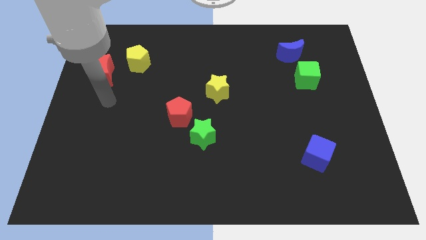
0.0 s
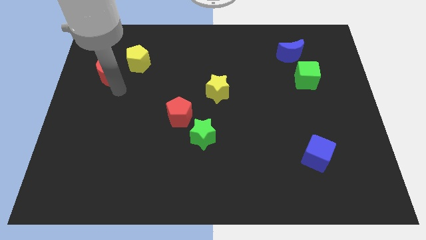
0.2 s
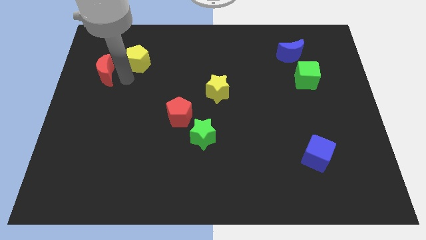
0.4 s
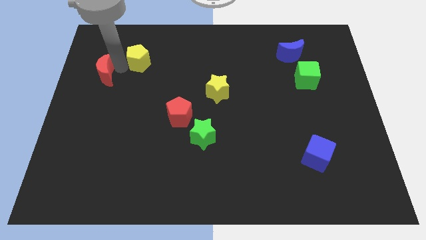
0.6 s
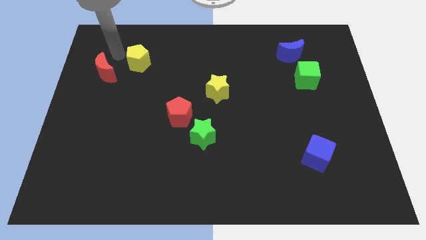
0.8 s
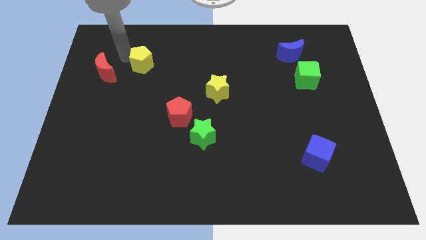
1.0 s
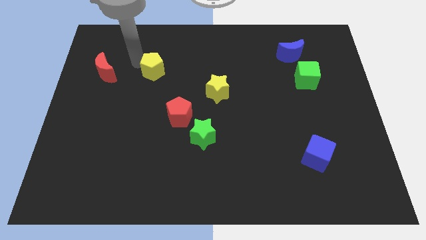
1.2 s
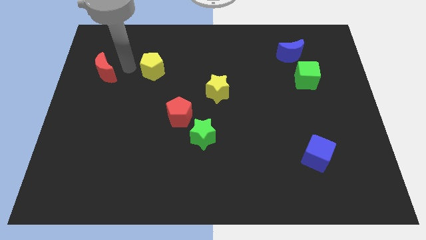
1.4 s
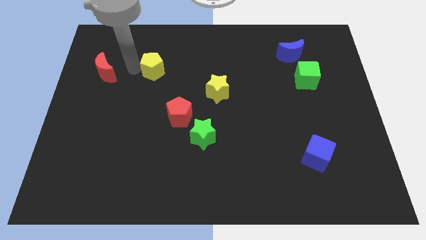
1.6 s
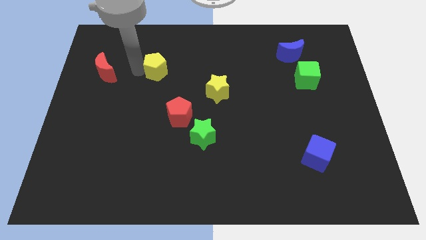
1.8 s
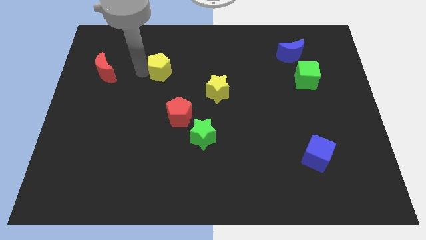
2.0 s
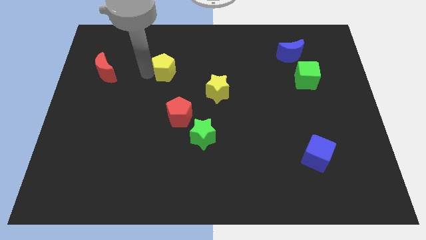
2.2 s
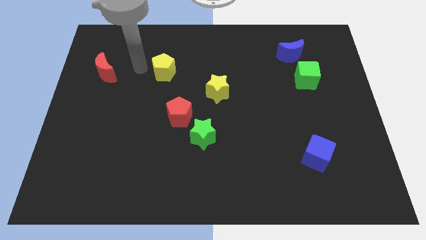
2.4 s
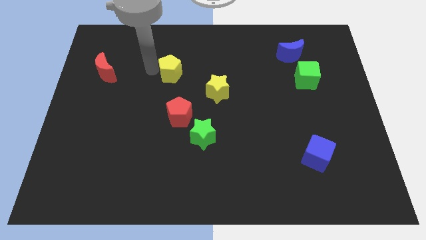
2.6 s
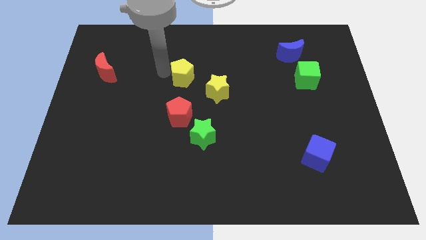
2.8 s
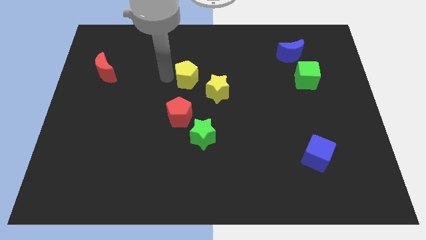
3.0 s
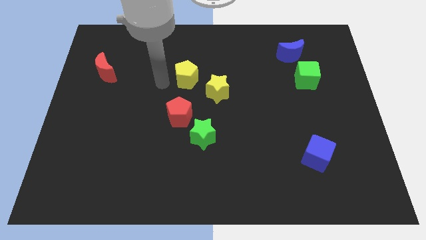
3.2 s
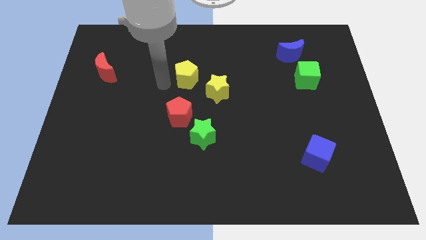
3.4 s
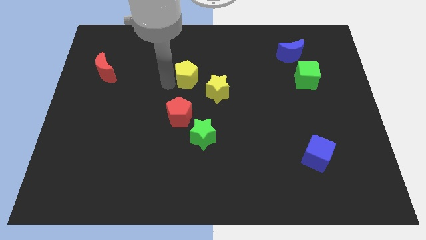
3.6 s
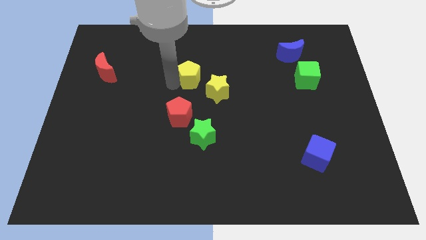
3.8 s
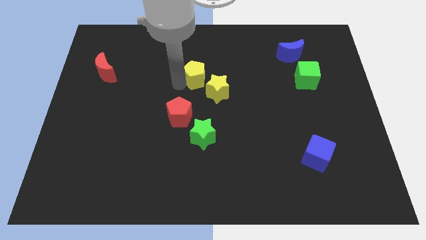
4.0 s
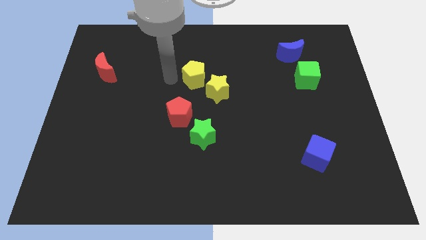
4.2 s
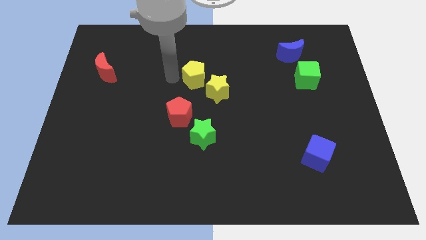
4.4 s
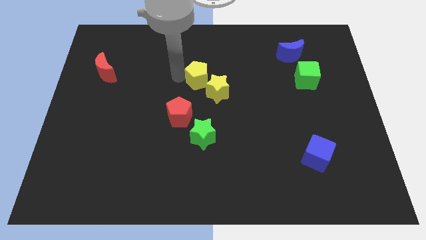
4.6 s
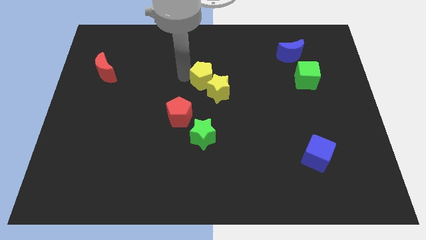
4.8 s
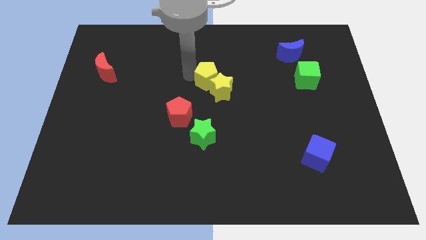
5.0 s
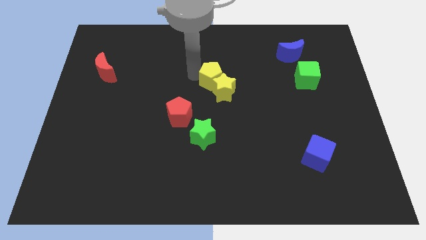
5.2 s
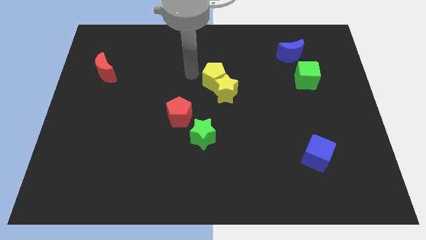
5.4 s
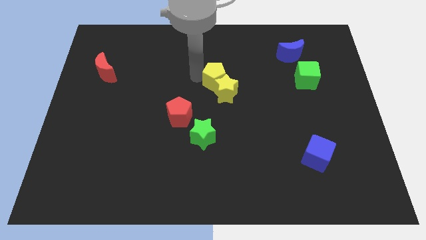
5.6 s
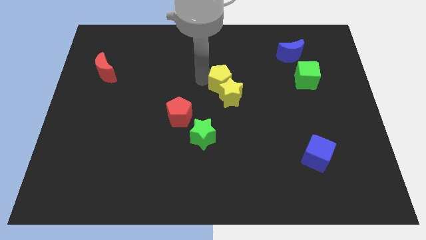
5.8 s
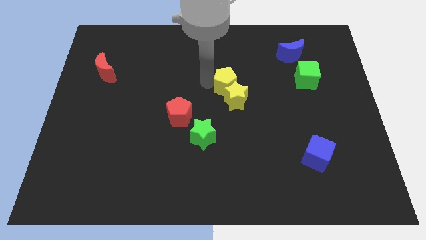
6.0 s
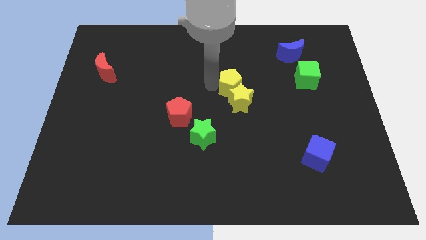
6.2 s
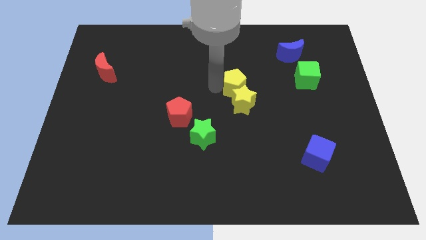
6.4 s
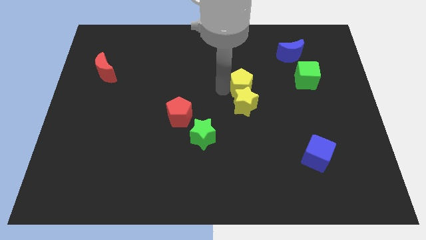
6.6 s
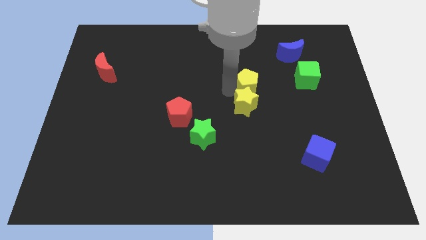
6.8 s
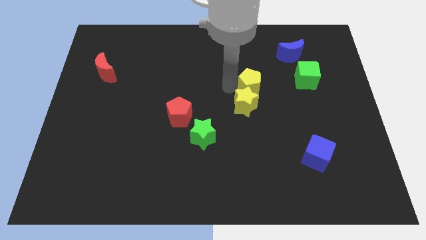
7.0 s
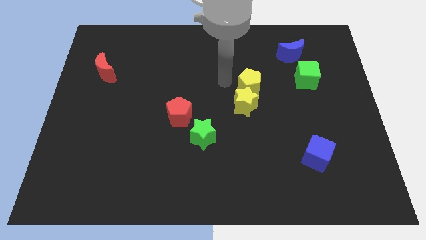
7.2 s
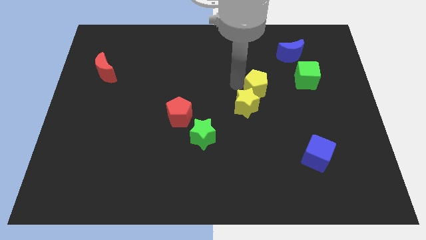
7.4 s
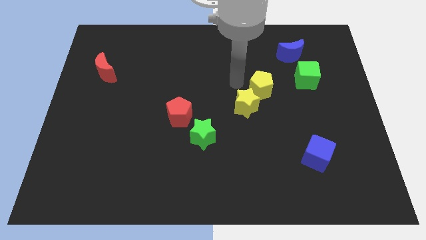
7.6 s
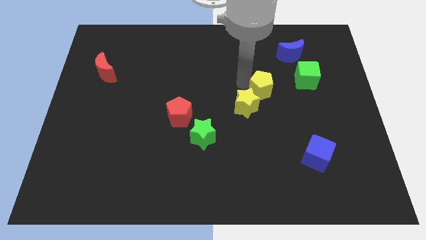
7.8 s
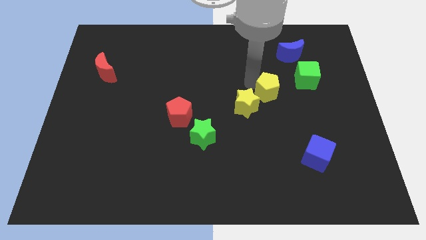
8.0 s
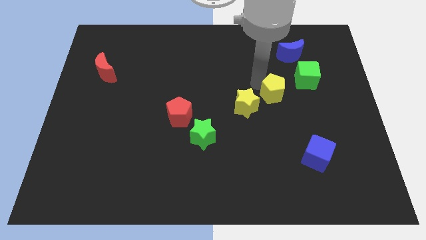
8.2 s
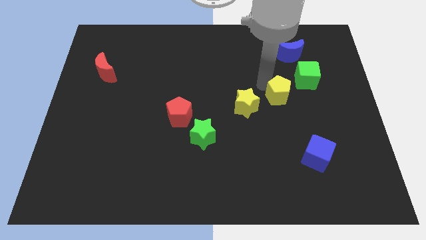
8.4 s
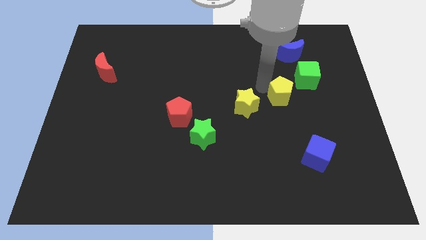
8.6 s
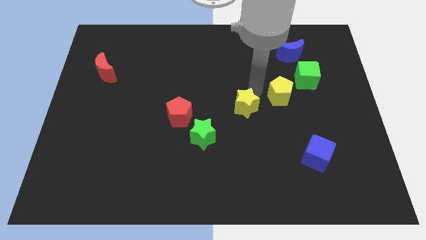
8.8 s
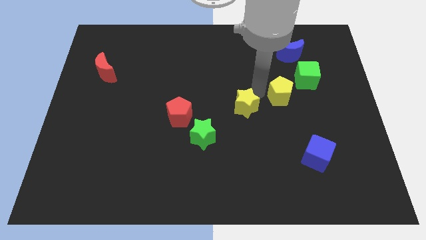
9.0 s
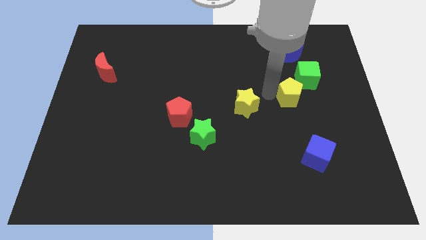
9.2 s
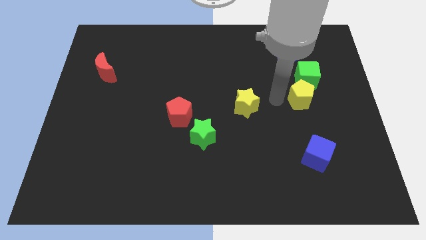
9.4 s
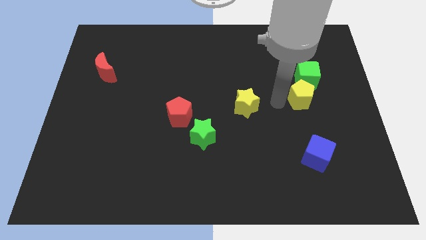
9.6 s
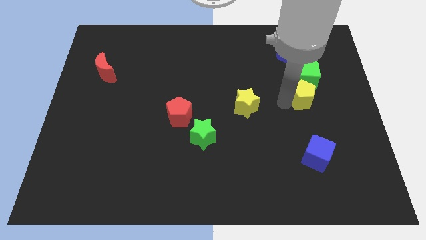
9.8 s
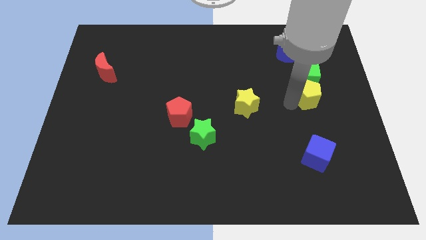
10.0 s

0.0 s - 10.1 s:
push the yellow pentagon to the bottom right side of the green cube

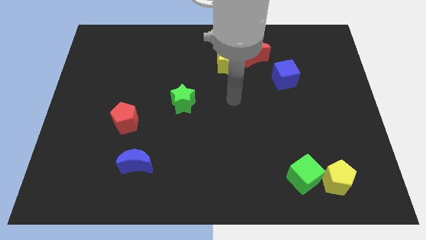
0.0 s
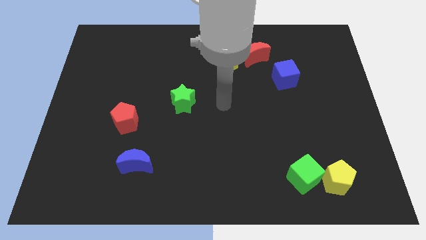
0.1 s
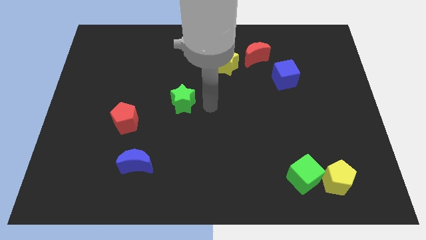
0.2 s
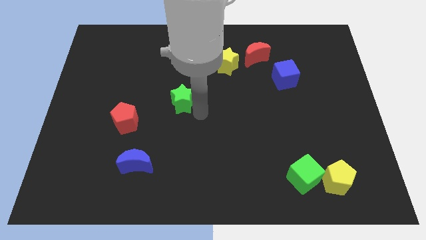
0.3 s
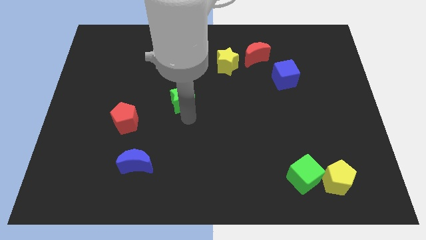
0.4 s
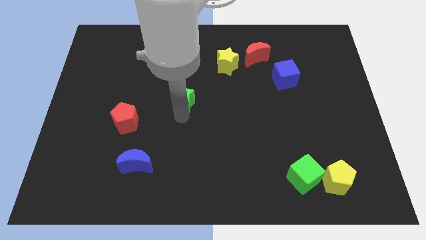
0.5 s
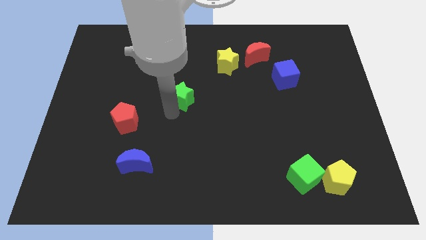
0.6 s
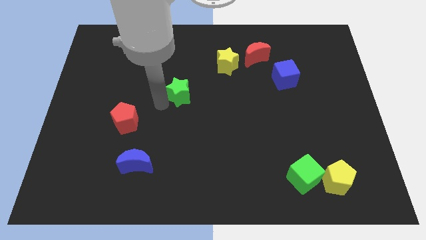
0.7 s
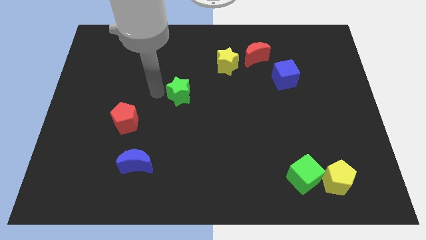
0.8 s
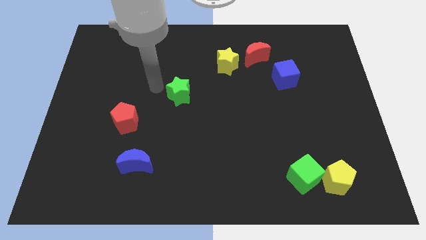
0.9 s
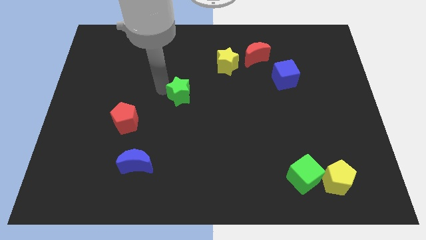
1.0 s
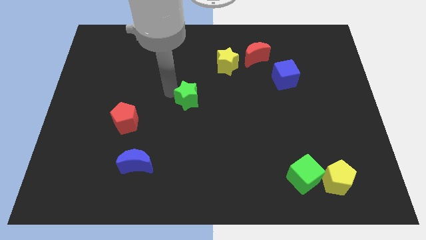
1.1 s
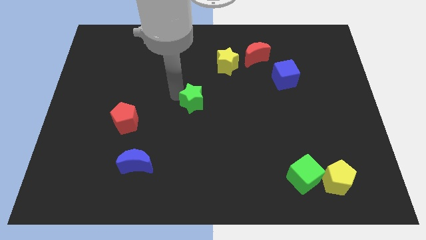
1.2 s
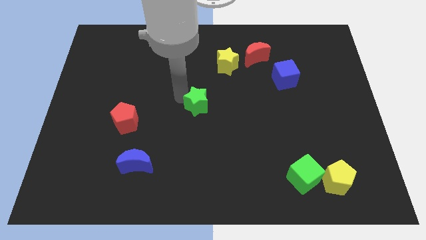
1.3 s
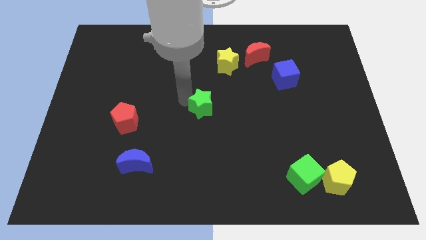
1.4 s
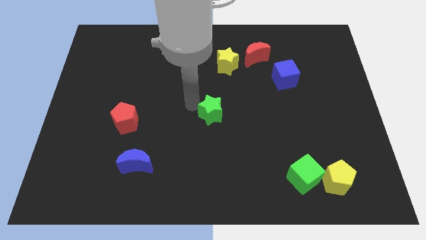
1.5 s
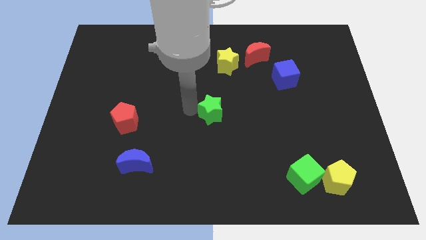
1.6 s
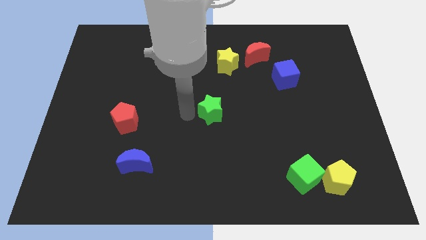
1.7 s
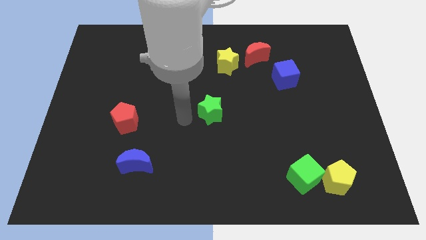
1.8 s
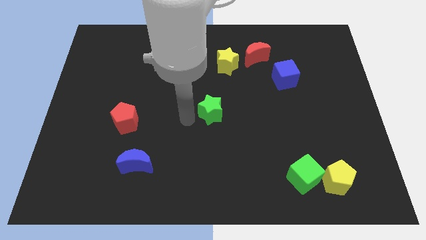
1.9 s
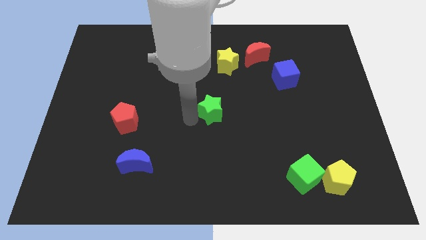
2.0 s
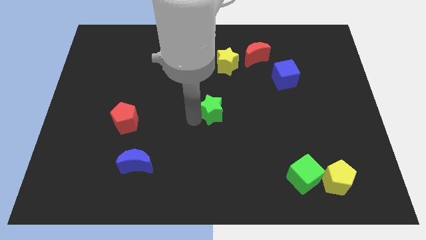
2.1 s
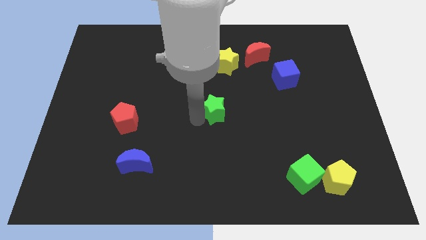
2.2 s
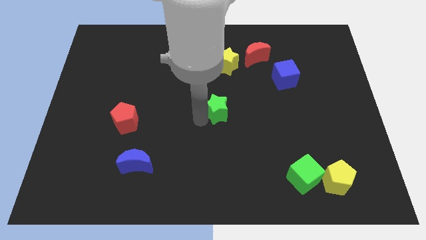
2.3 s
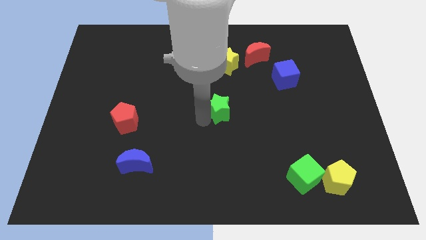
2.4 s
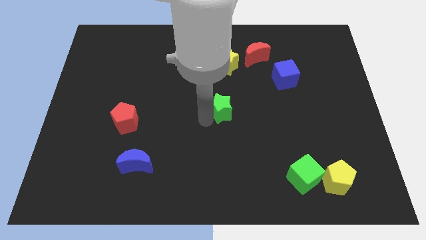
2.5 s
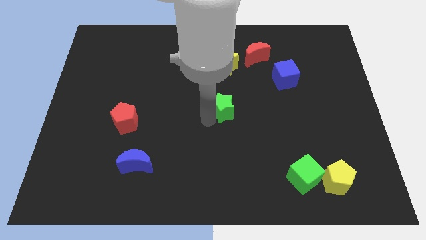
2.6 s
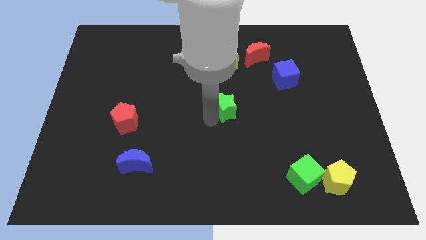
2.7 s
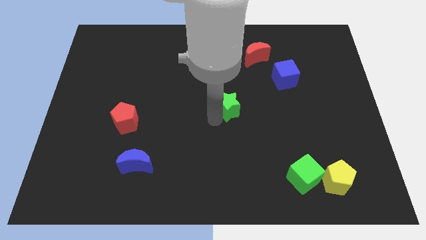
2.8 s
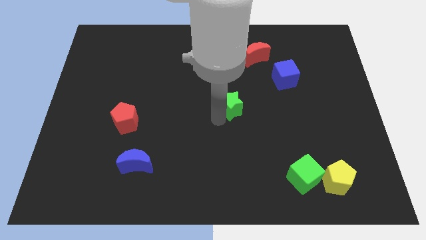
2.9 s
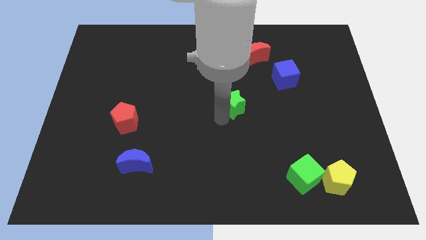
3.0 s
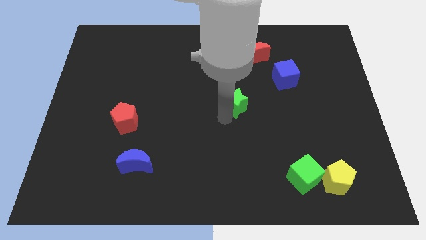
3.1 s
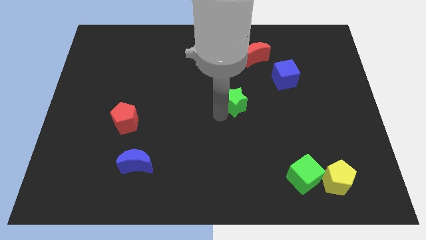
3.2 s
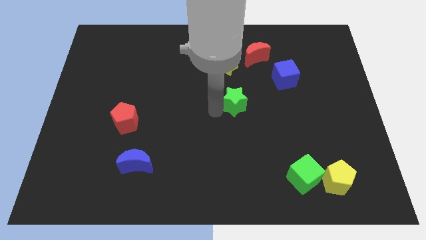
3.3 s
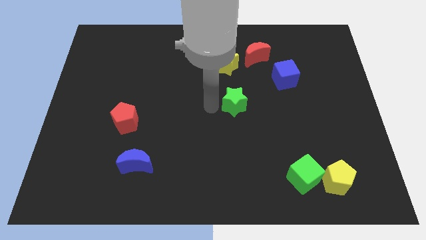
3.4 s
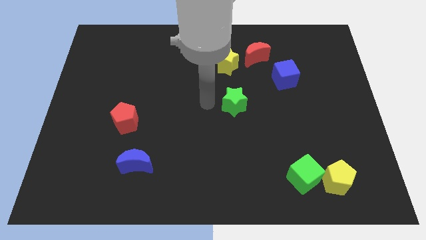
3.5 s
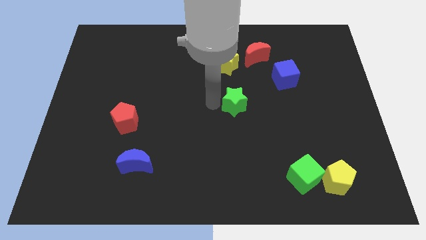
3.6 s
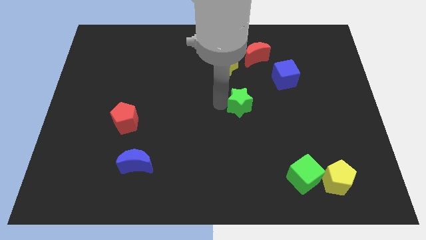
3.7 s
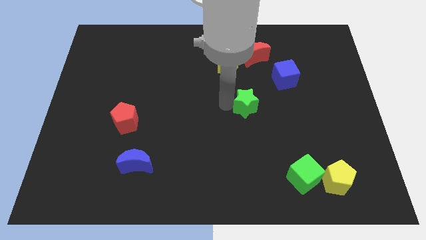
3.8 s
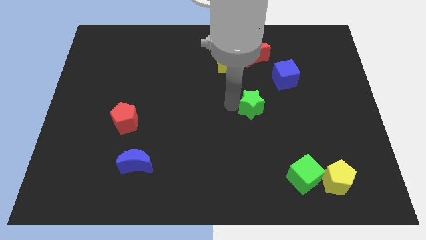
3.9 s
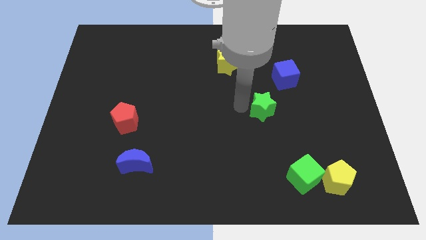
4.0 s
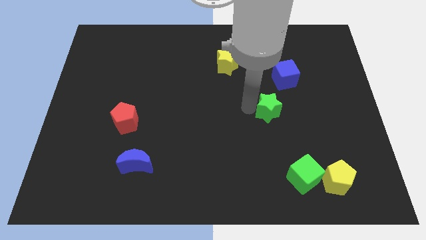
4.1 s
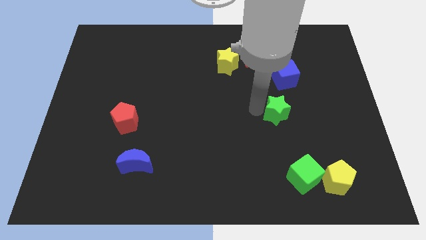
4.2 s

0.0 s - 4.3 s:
push the green star to the bottom of the blue cube
